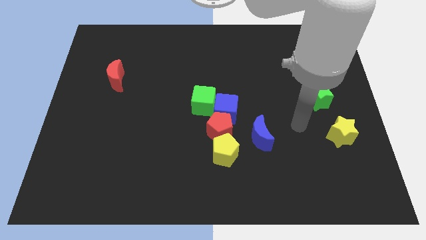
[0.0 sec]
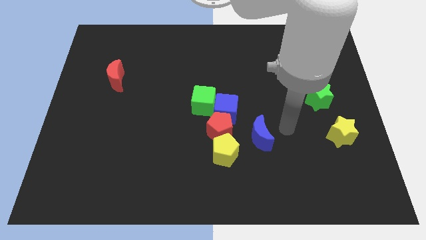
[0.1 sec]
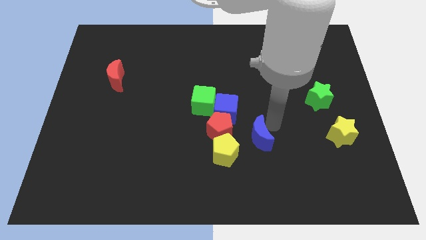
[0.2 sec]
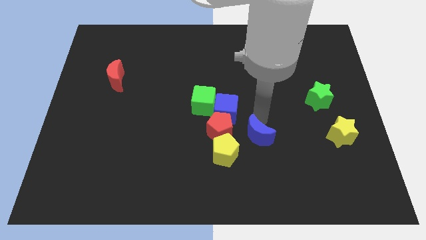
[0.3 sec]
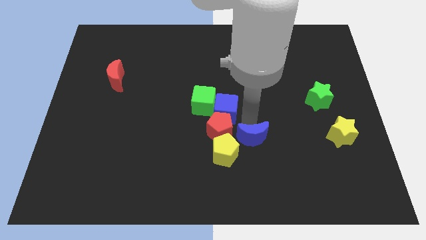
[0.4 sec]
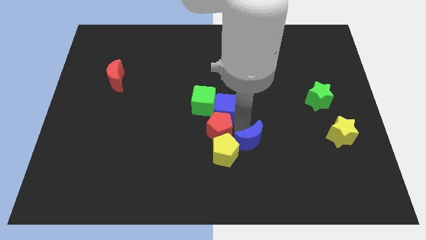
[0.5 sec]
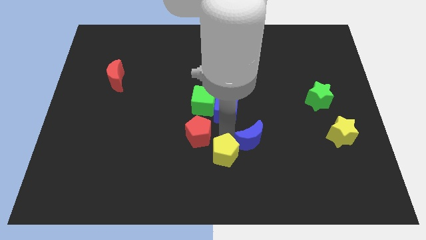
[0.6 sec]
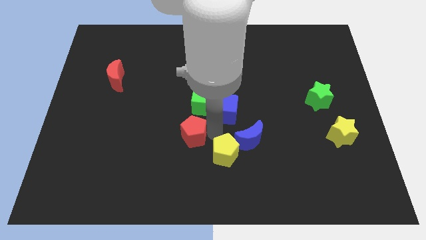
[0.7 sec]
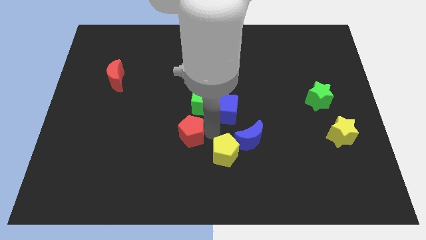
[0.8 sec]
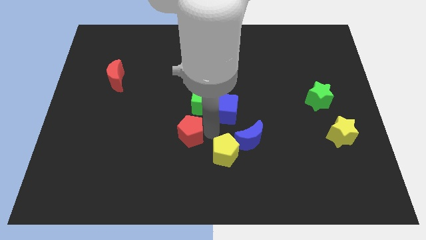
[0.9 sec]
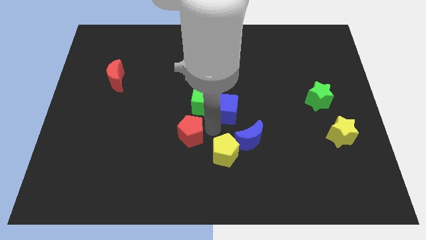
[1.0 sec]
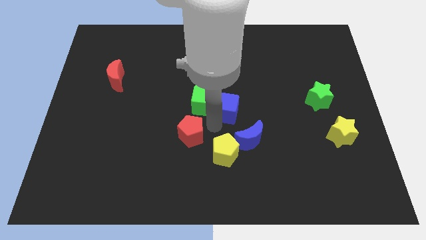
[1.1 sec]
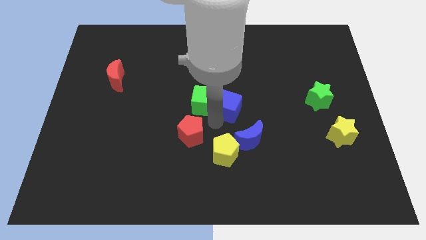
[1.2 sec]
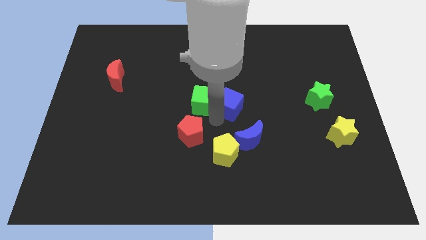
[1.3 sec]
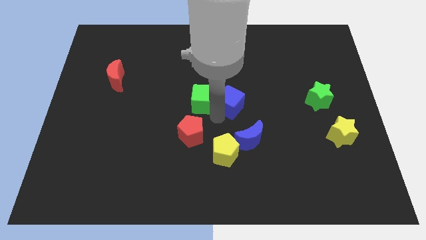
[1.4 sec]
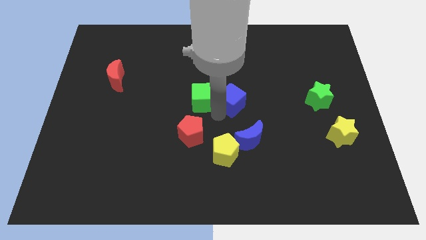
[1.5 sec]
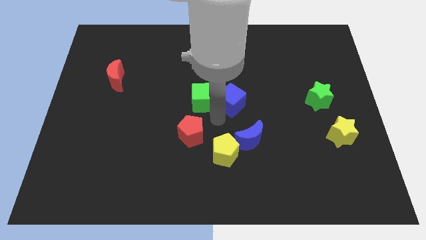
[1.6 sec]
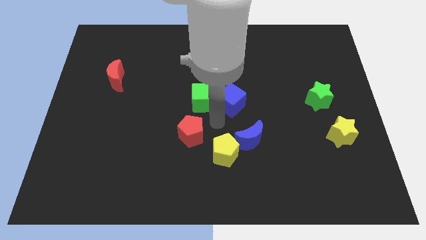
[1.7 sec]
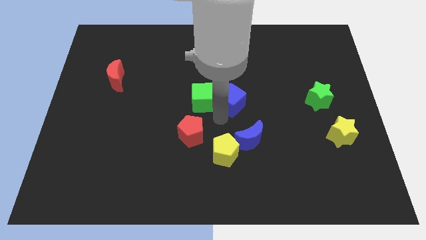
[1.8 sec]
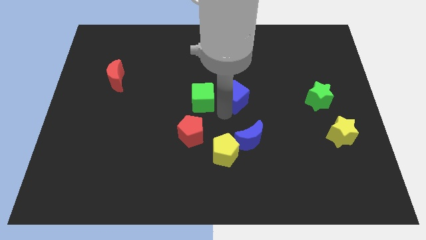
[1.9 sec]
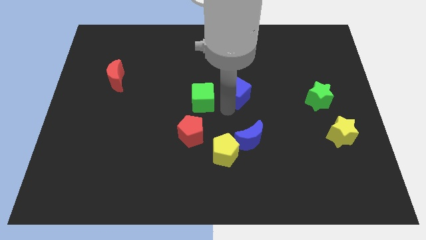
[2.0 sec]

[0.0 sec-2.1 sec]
move the blue cube away from the group of blocks

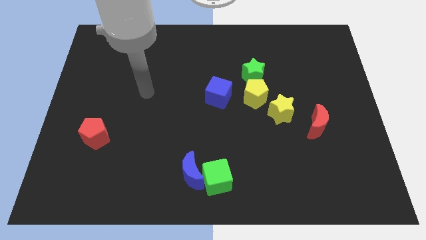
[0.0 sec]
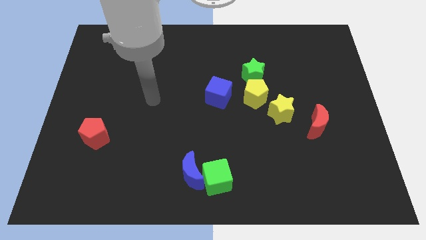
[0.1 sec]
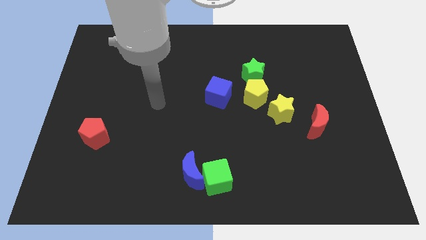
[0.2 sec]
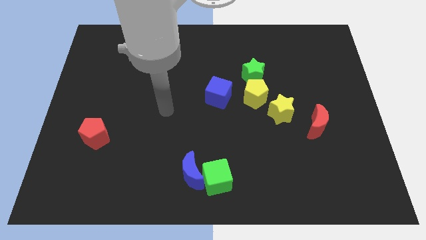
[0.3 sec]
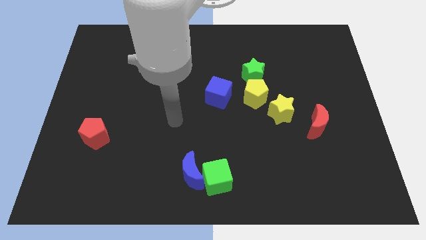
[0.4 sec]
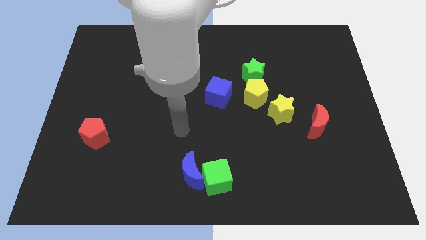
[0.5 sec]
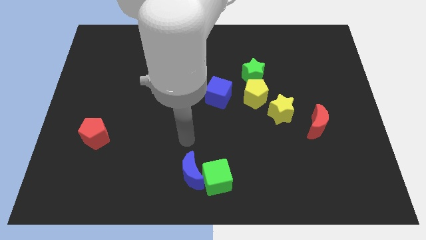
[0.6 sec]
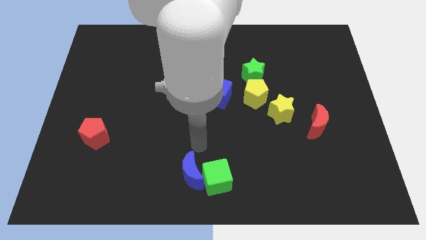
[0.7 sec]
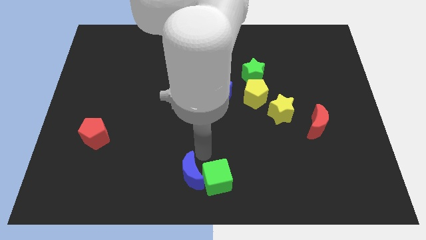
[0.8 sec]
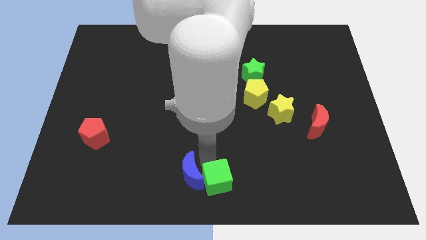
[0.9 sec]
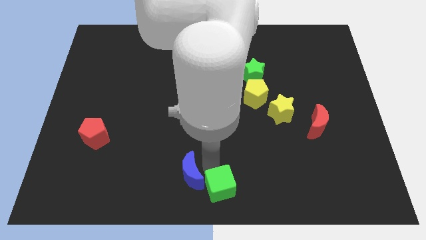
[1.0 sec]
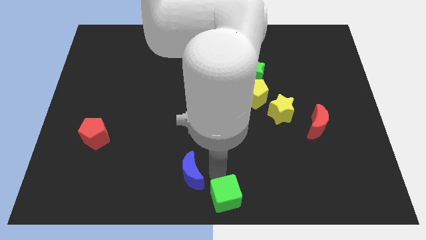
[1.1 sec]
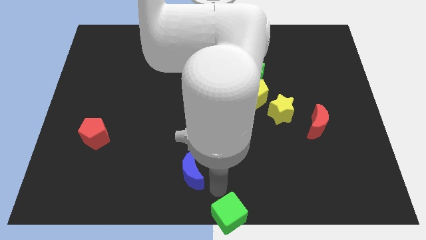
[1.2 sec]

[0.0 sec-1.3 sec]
separate the blue moon from the green cube

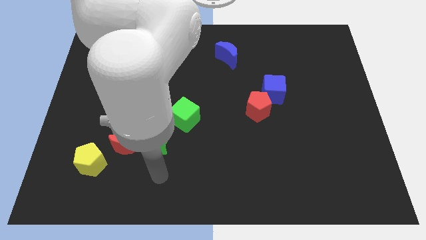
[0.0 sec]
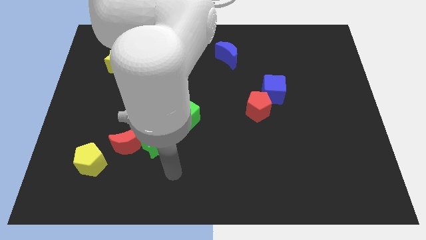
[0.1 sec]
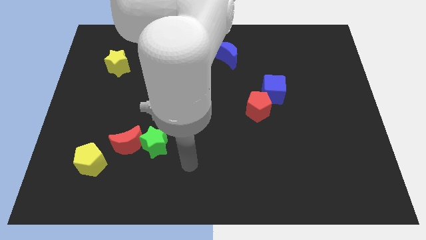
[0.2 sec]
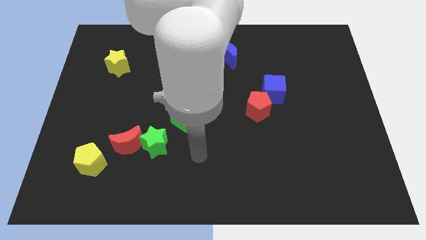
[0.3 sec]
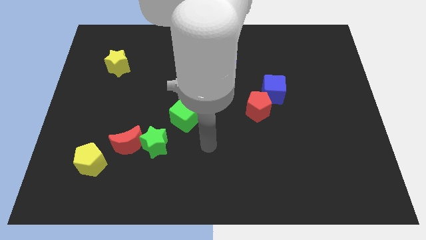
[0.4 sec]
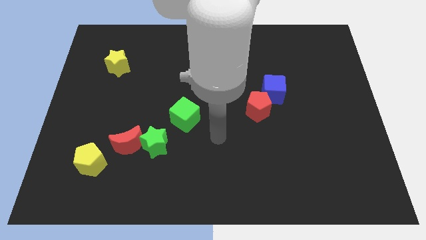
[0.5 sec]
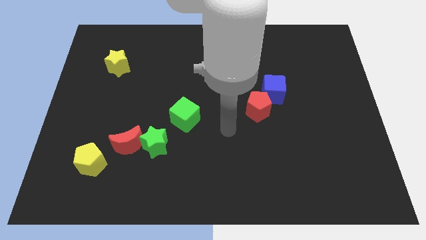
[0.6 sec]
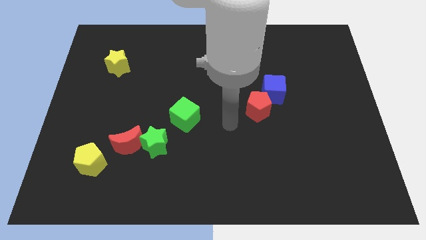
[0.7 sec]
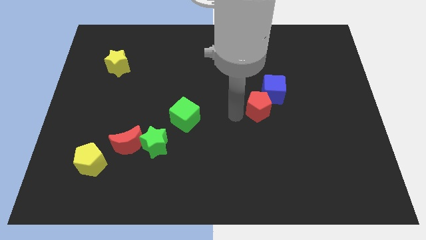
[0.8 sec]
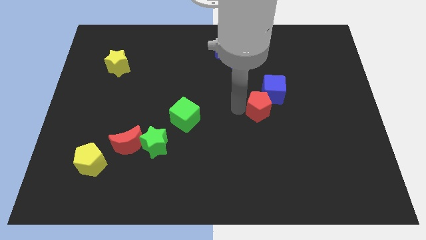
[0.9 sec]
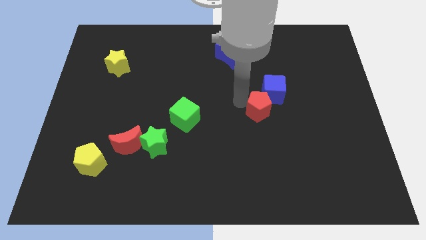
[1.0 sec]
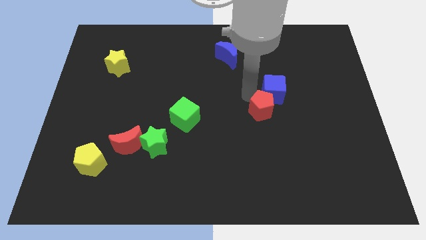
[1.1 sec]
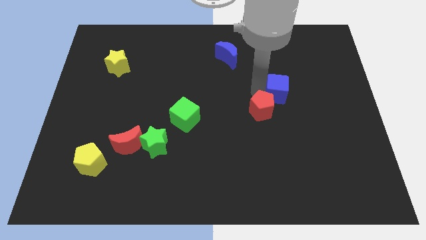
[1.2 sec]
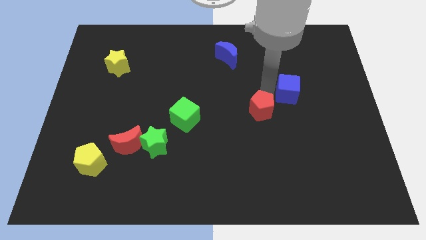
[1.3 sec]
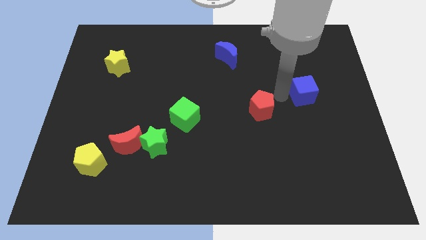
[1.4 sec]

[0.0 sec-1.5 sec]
pull the red pentagon apart from the blue cube

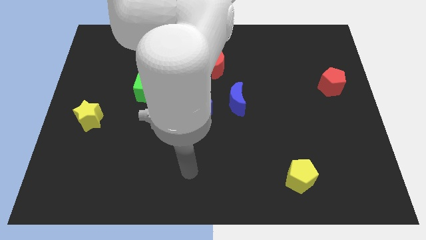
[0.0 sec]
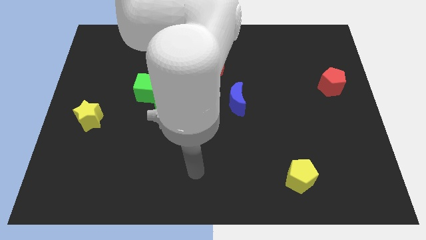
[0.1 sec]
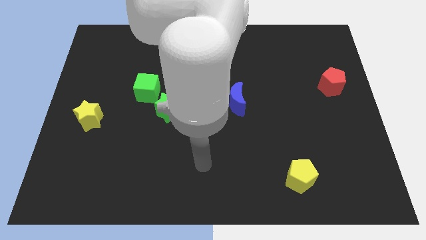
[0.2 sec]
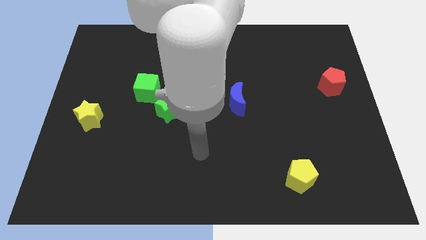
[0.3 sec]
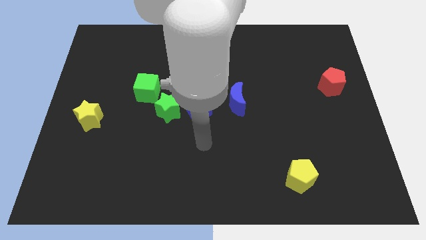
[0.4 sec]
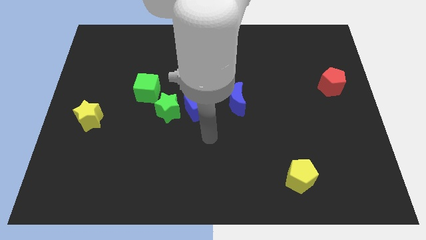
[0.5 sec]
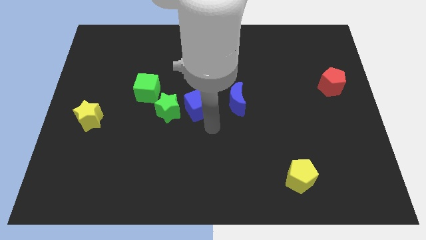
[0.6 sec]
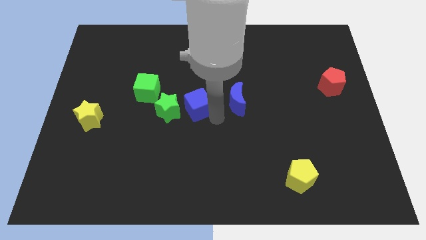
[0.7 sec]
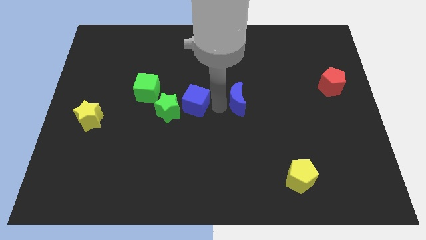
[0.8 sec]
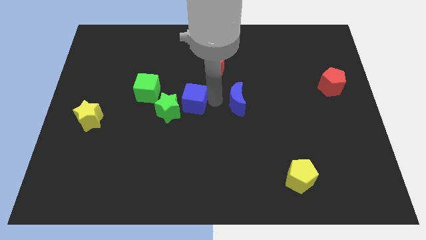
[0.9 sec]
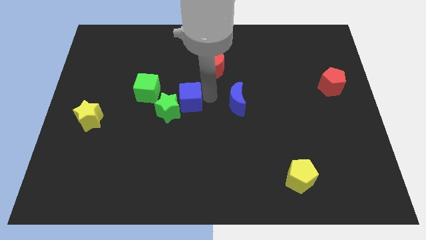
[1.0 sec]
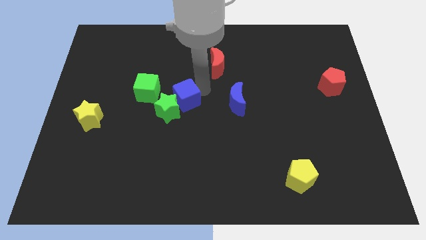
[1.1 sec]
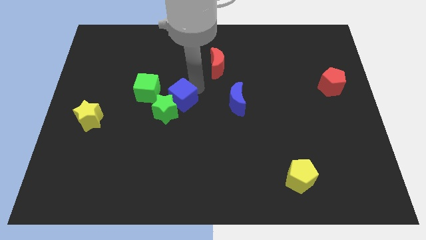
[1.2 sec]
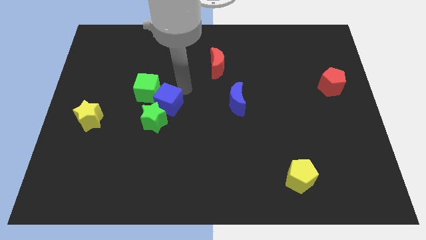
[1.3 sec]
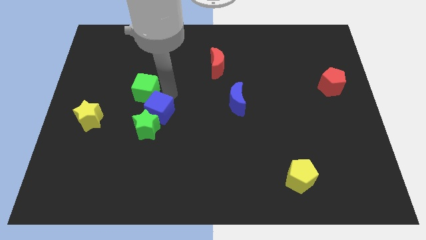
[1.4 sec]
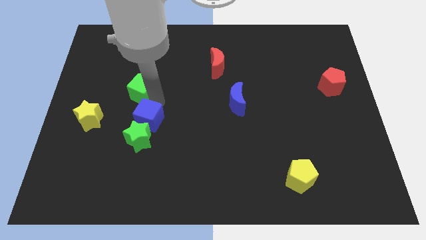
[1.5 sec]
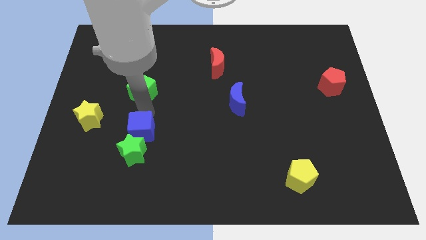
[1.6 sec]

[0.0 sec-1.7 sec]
move the green star away from the blue cube and green cube

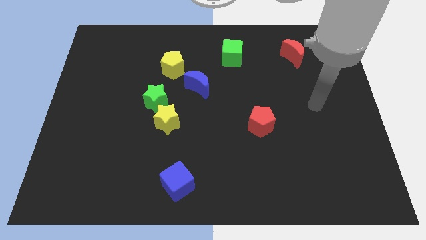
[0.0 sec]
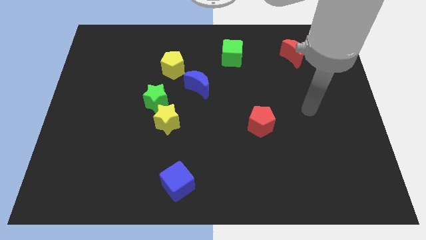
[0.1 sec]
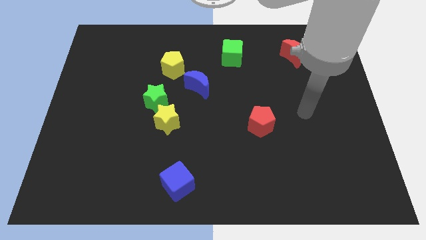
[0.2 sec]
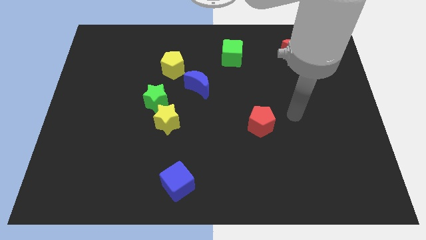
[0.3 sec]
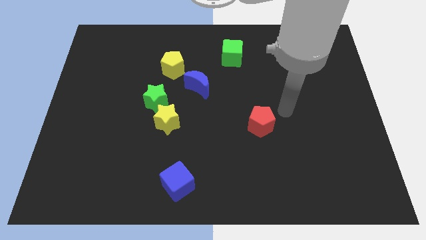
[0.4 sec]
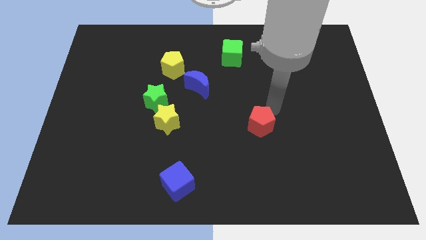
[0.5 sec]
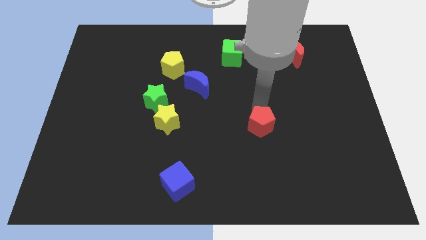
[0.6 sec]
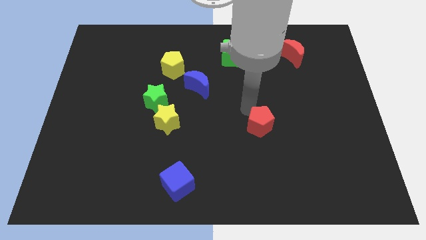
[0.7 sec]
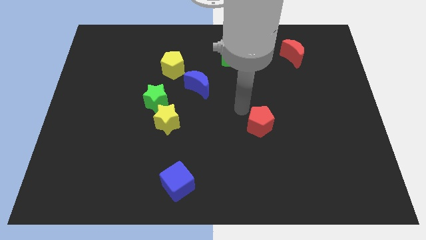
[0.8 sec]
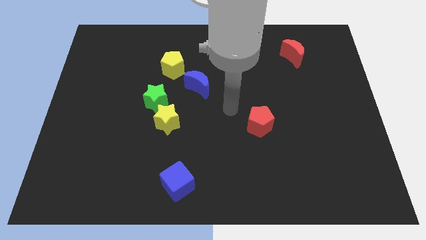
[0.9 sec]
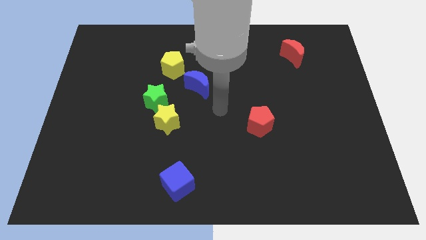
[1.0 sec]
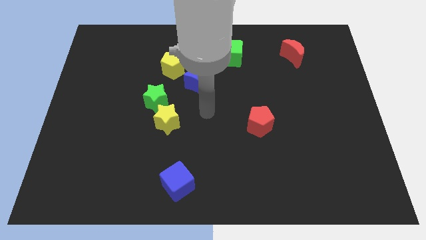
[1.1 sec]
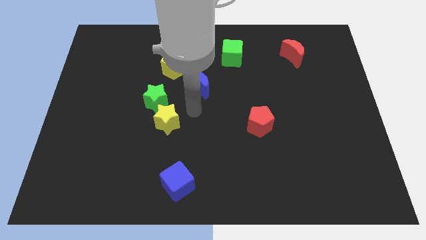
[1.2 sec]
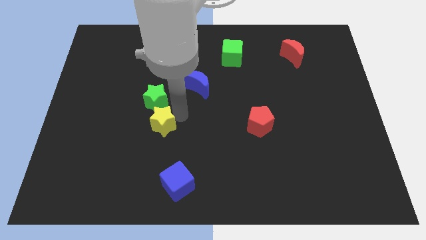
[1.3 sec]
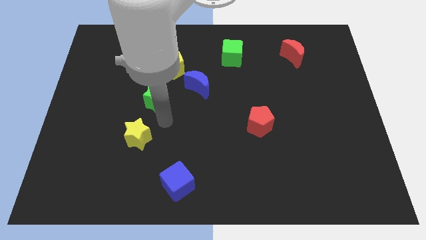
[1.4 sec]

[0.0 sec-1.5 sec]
move the green star away from the yellow star

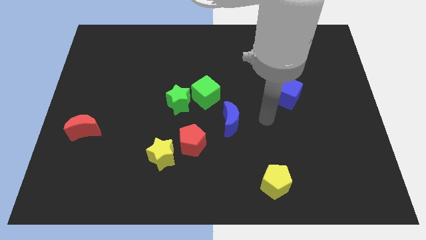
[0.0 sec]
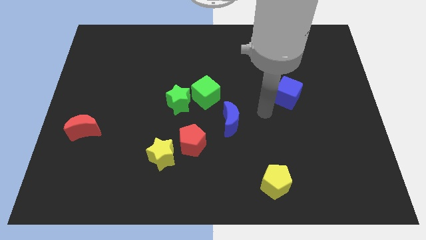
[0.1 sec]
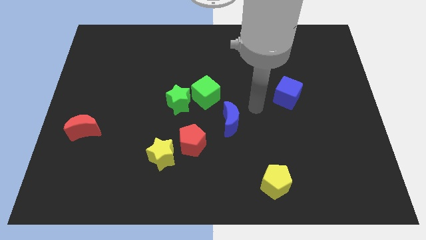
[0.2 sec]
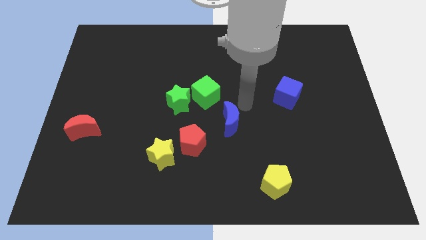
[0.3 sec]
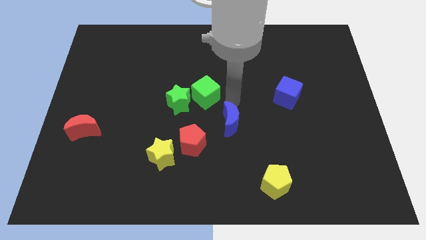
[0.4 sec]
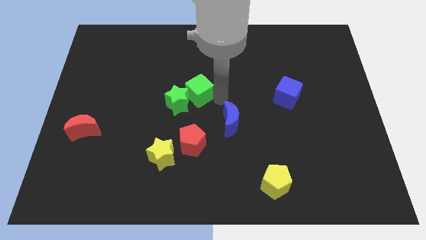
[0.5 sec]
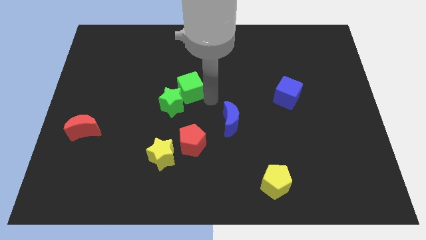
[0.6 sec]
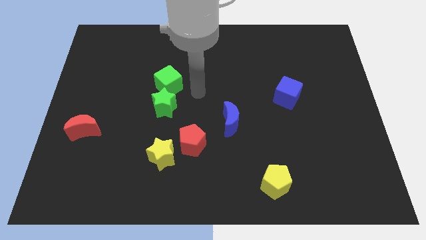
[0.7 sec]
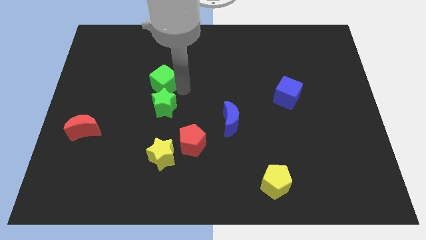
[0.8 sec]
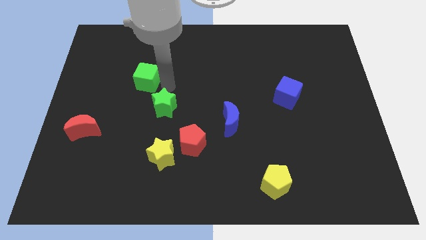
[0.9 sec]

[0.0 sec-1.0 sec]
separate the green star from the green cube

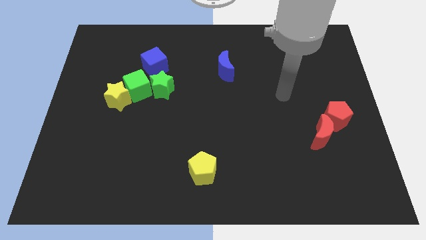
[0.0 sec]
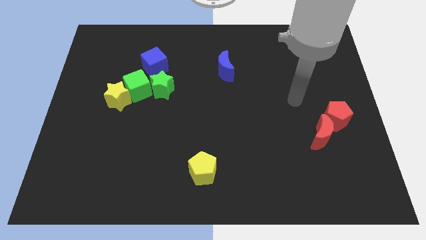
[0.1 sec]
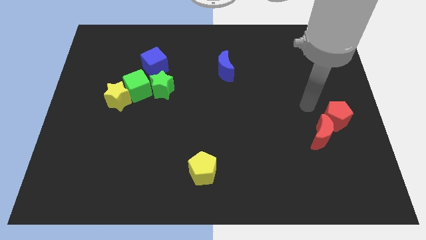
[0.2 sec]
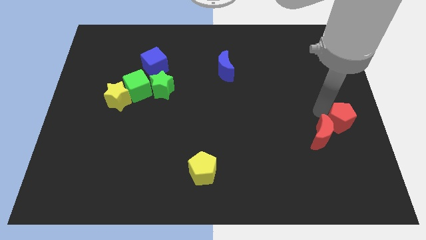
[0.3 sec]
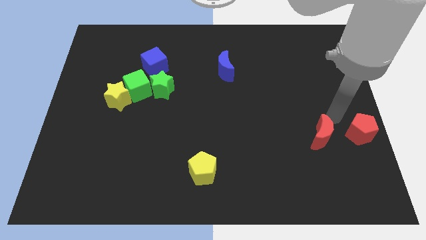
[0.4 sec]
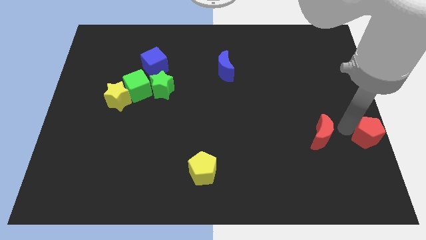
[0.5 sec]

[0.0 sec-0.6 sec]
separate the red moon from the red pentagon
